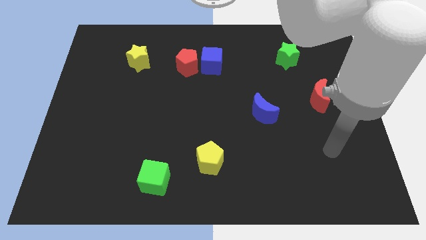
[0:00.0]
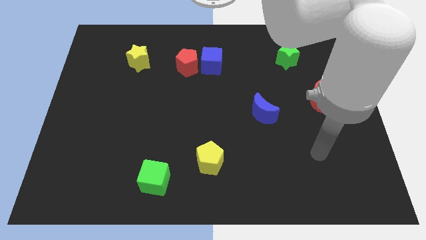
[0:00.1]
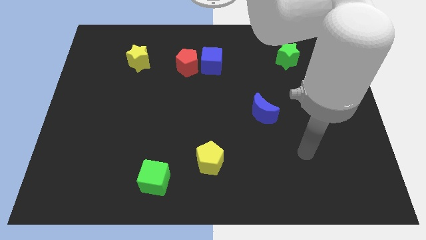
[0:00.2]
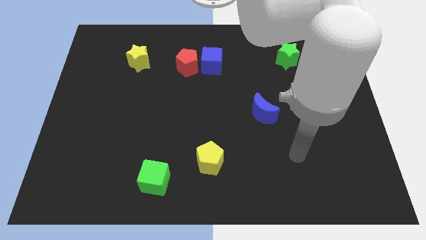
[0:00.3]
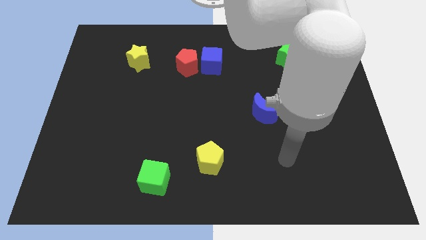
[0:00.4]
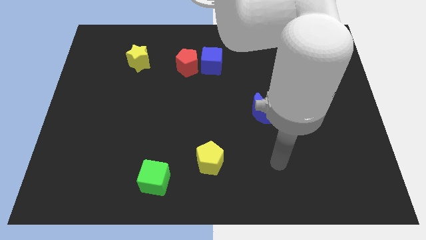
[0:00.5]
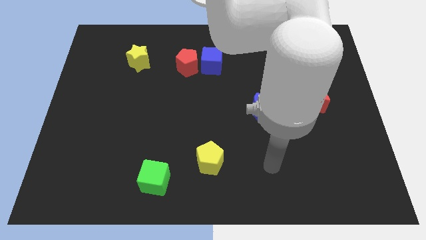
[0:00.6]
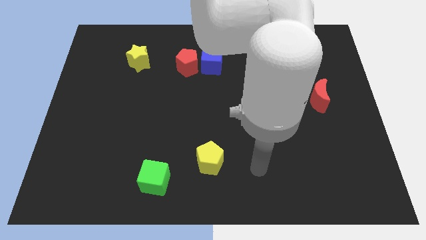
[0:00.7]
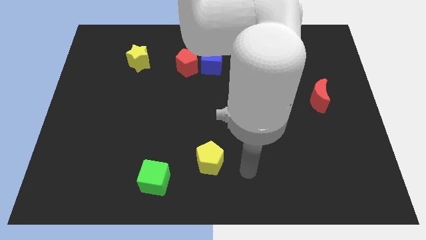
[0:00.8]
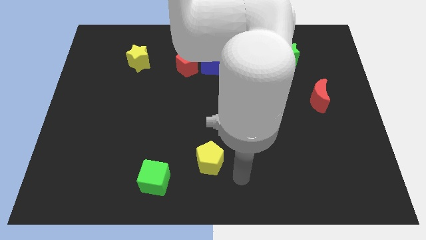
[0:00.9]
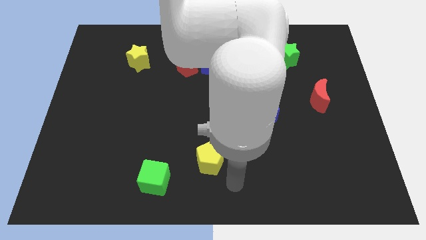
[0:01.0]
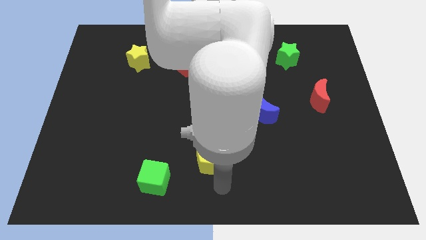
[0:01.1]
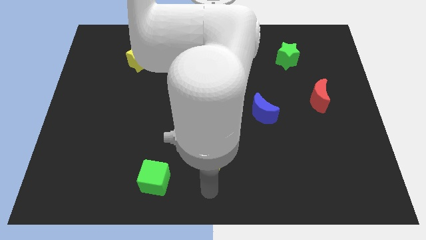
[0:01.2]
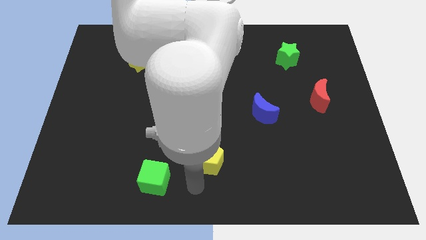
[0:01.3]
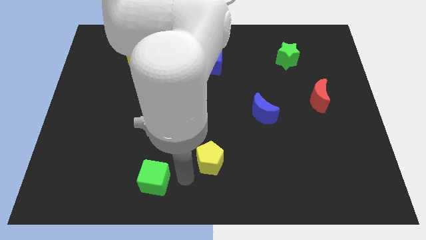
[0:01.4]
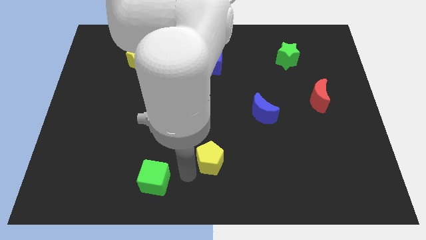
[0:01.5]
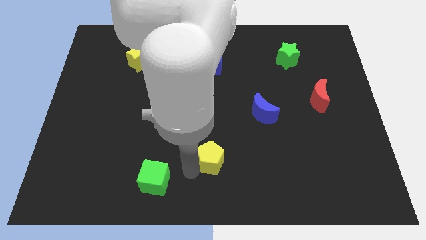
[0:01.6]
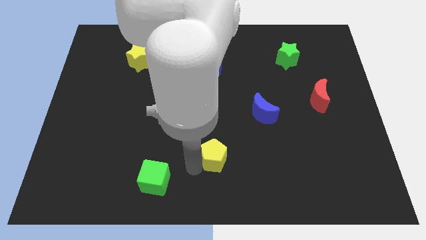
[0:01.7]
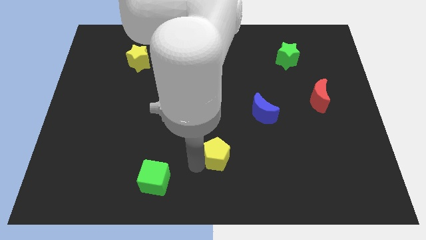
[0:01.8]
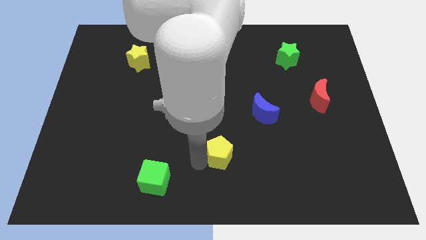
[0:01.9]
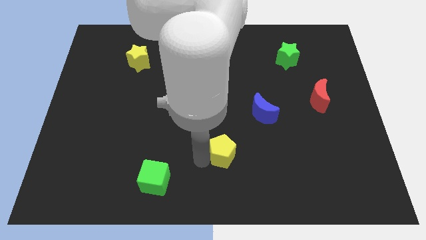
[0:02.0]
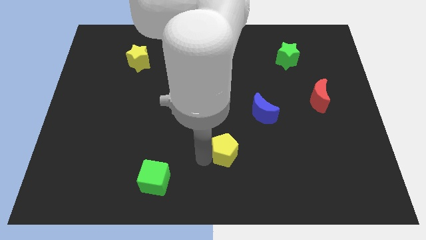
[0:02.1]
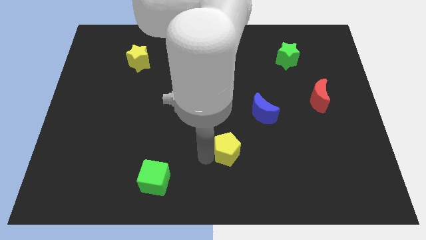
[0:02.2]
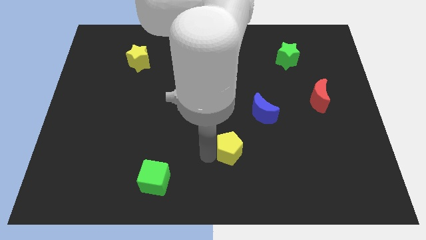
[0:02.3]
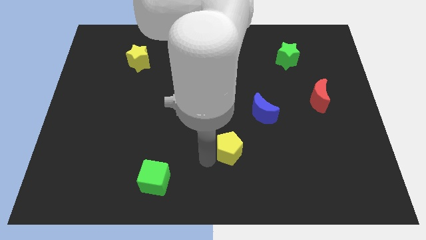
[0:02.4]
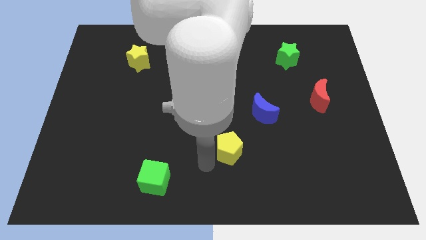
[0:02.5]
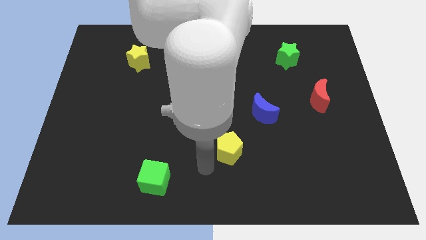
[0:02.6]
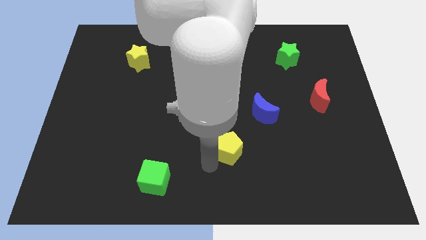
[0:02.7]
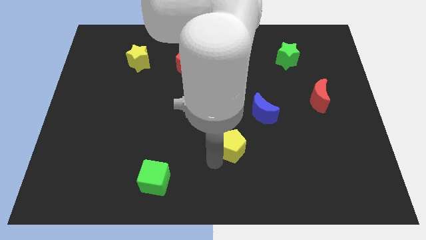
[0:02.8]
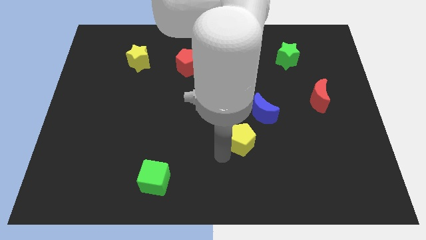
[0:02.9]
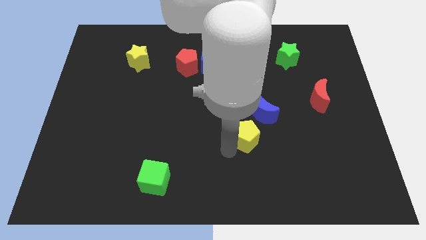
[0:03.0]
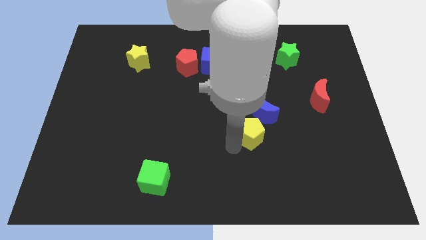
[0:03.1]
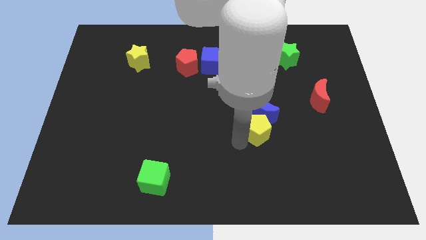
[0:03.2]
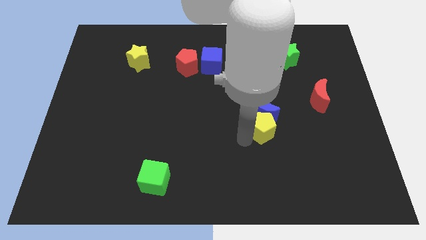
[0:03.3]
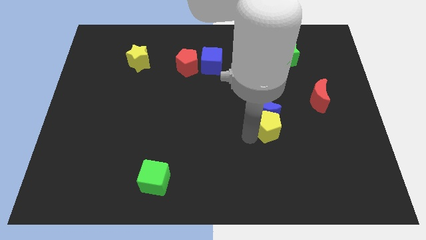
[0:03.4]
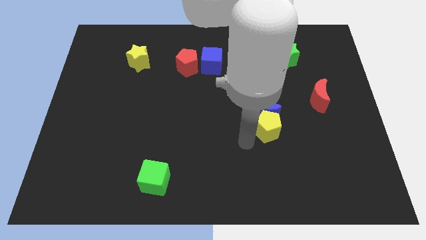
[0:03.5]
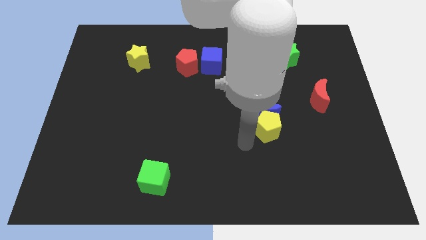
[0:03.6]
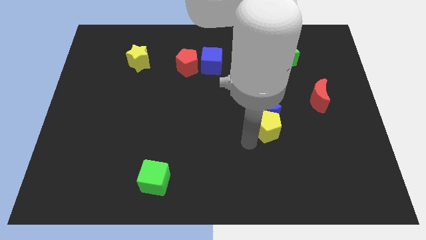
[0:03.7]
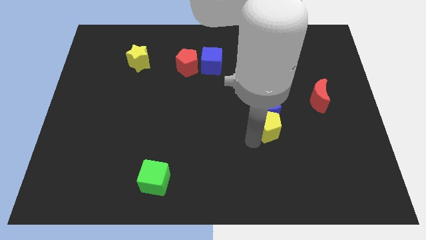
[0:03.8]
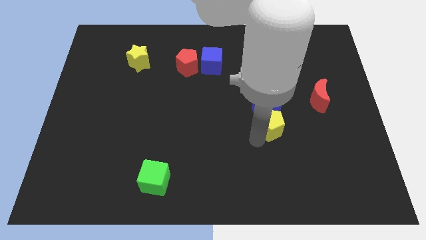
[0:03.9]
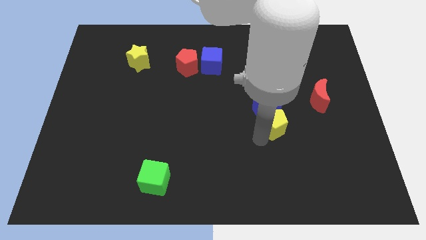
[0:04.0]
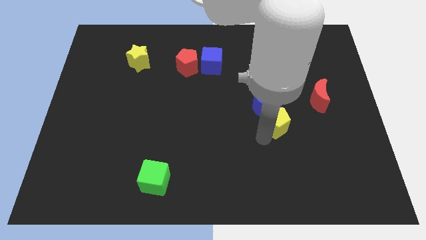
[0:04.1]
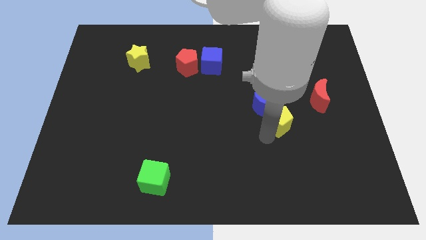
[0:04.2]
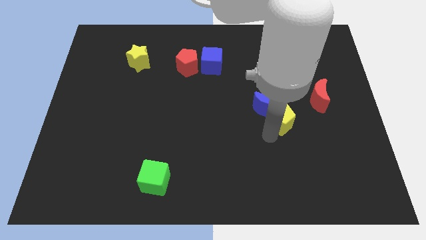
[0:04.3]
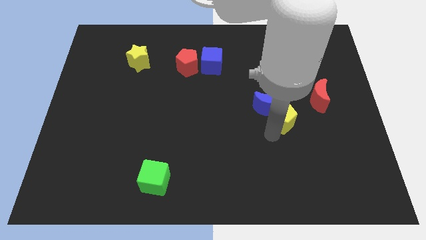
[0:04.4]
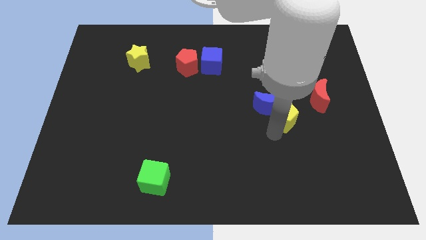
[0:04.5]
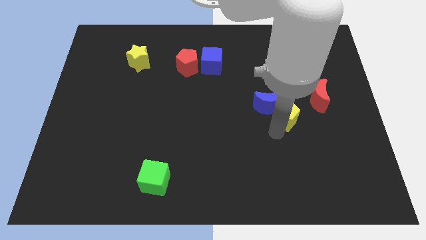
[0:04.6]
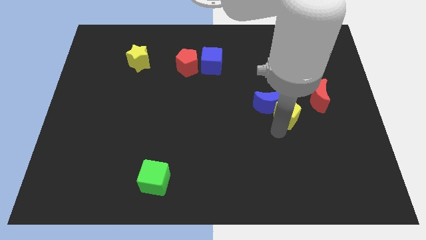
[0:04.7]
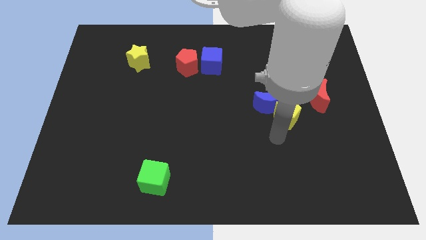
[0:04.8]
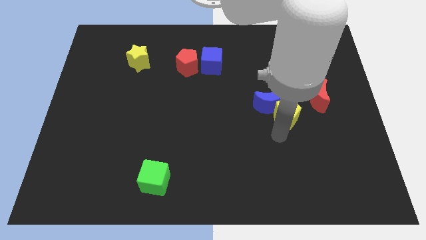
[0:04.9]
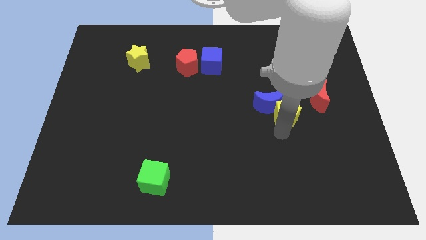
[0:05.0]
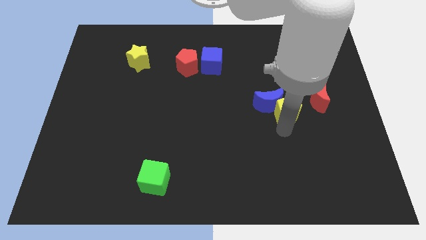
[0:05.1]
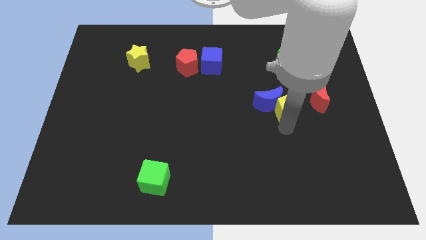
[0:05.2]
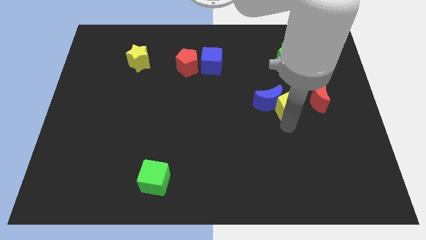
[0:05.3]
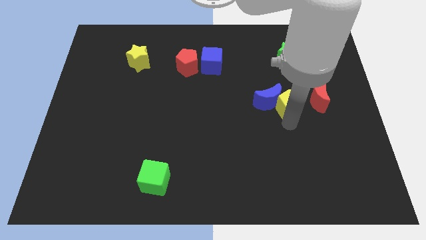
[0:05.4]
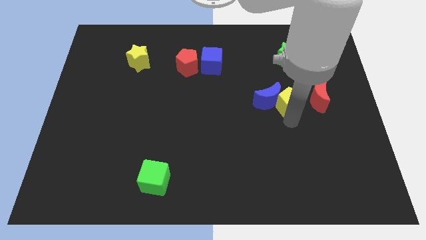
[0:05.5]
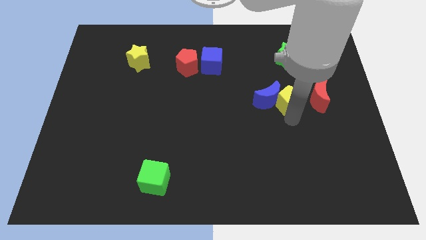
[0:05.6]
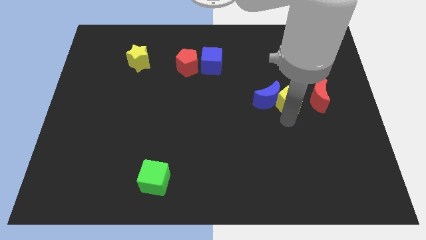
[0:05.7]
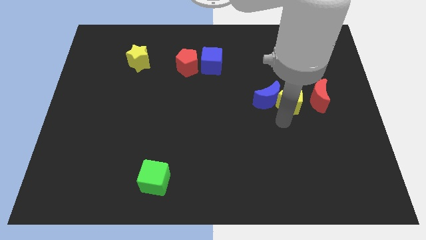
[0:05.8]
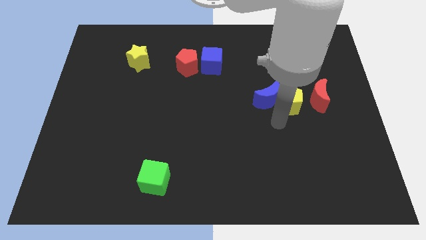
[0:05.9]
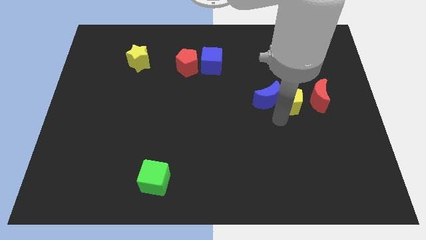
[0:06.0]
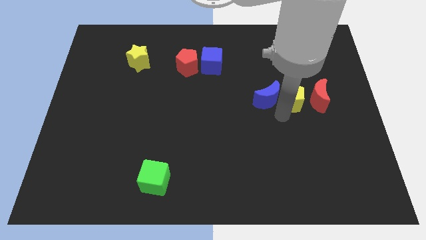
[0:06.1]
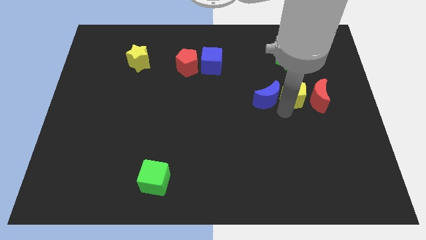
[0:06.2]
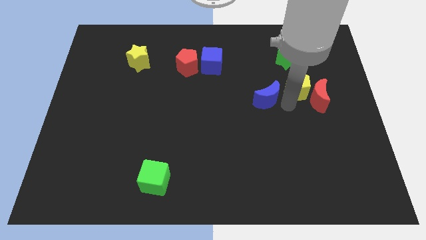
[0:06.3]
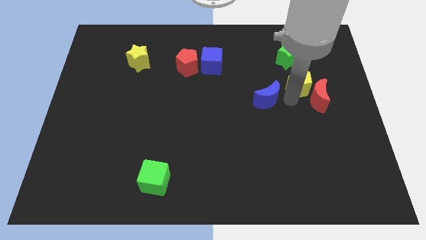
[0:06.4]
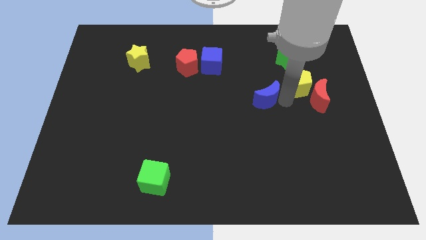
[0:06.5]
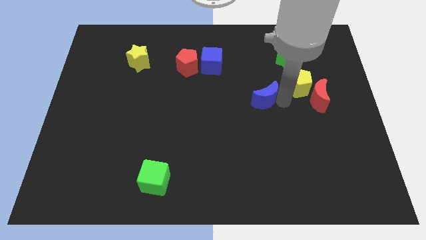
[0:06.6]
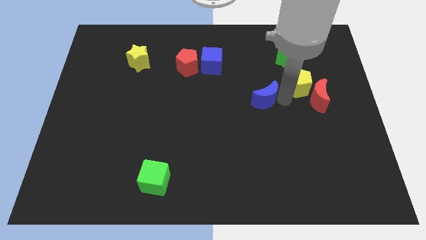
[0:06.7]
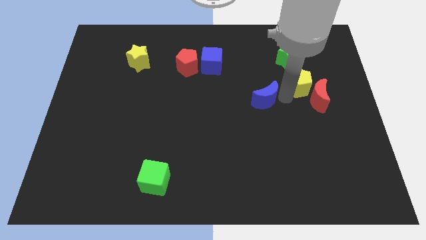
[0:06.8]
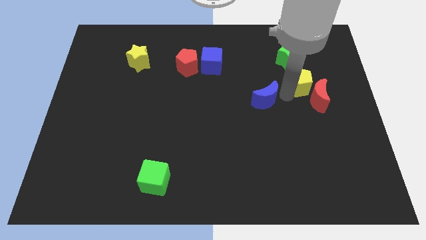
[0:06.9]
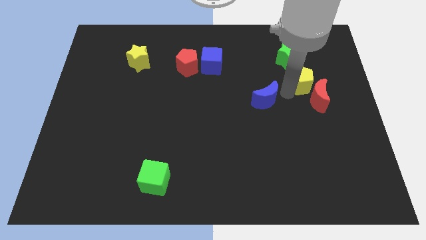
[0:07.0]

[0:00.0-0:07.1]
slide the yellow pentagon to the bottom right of the green star
